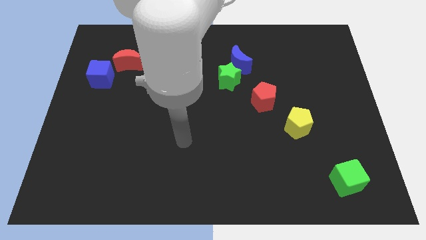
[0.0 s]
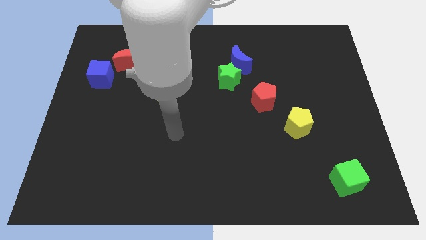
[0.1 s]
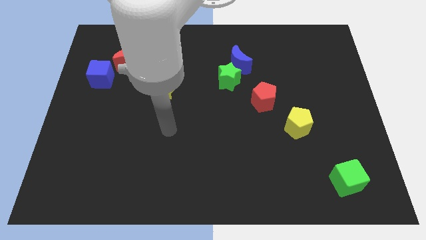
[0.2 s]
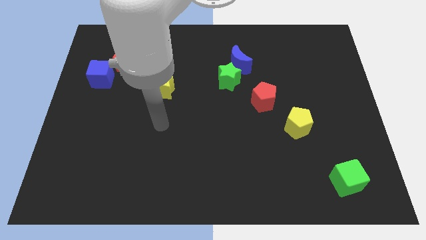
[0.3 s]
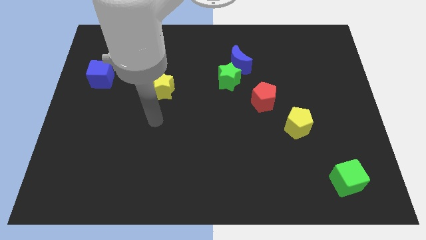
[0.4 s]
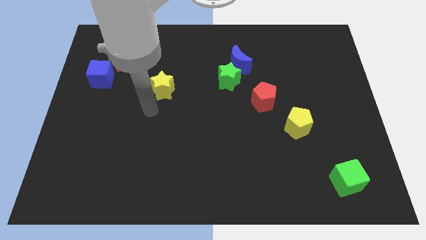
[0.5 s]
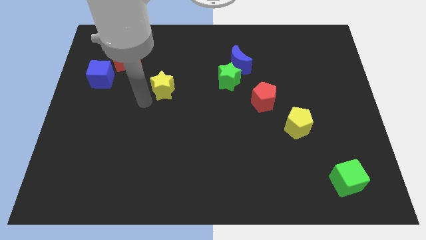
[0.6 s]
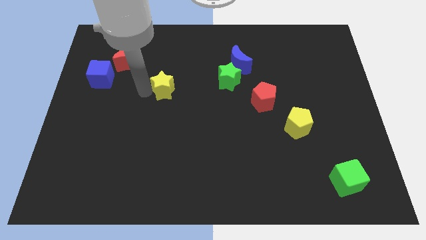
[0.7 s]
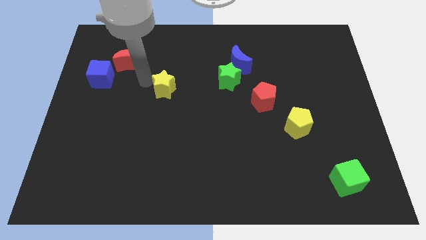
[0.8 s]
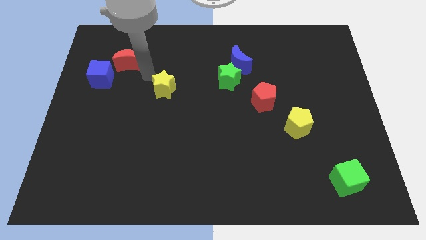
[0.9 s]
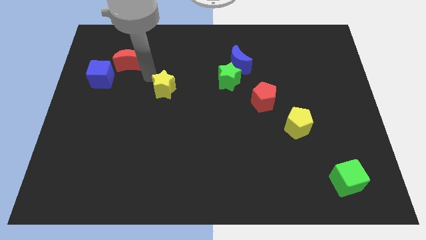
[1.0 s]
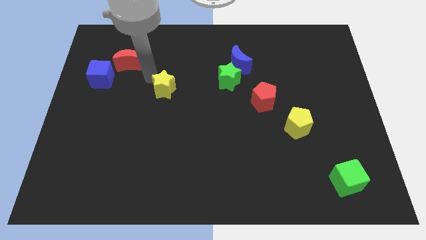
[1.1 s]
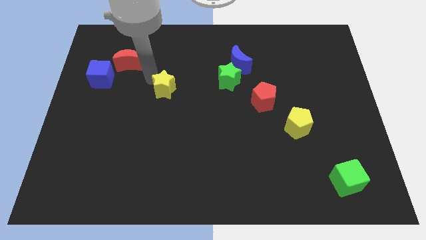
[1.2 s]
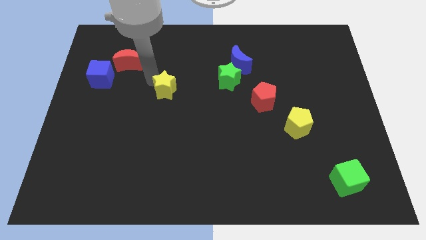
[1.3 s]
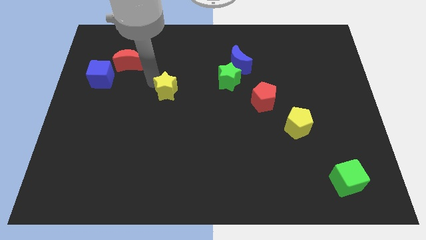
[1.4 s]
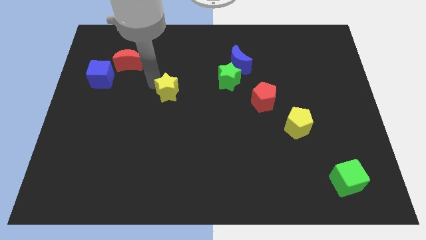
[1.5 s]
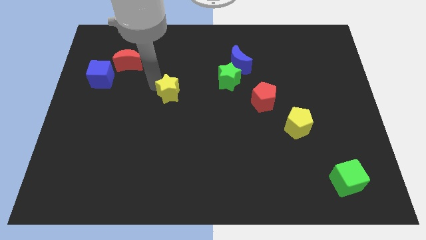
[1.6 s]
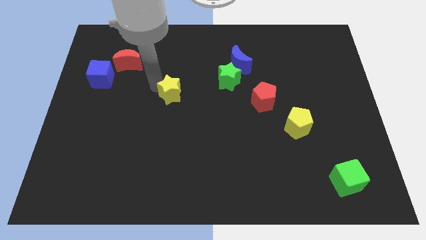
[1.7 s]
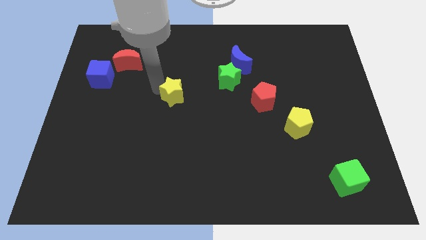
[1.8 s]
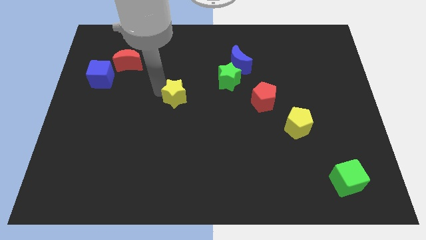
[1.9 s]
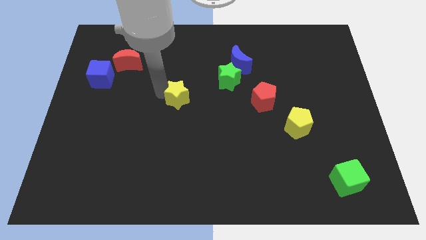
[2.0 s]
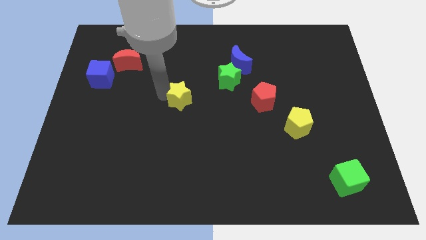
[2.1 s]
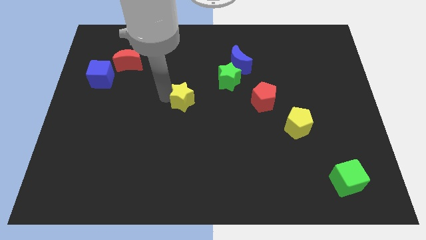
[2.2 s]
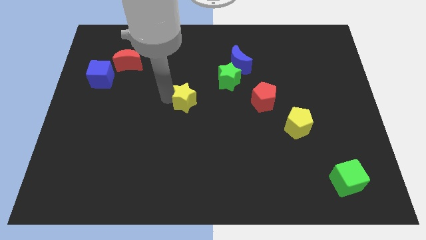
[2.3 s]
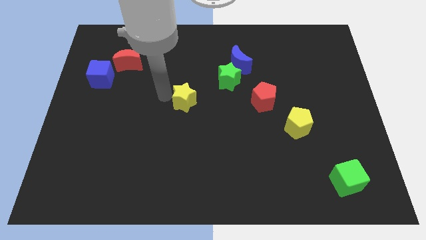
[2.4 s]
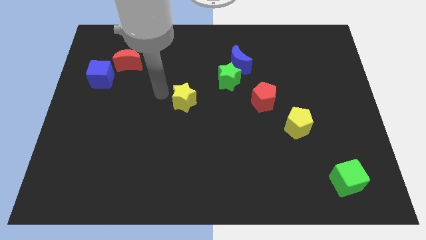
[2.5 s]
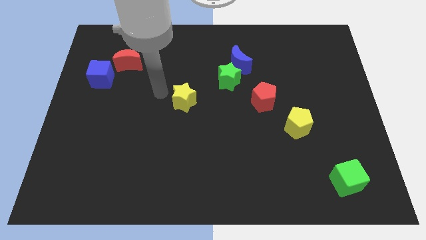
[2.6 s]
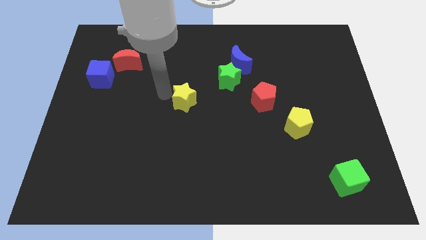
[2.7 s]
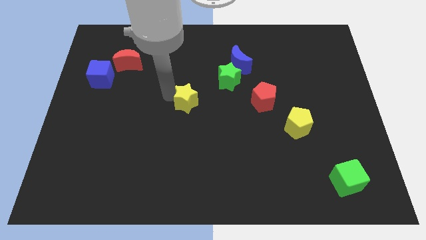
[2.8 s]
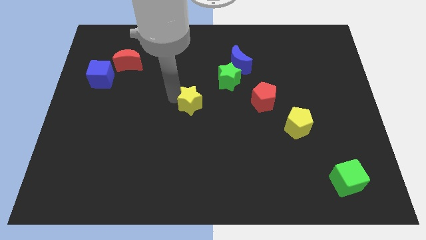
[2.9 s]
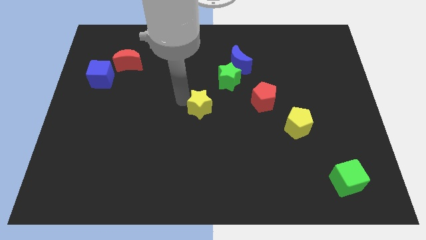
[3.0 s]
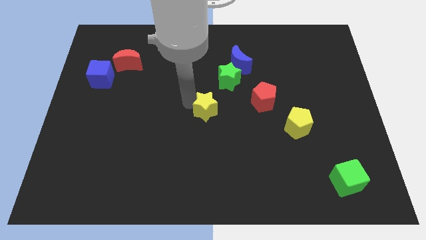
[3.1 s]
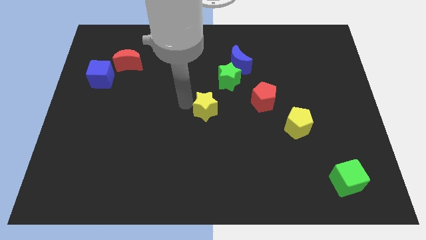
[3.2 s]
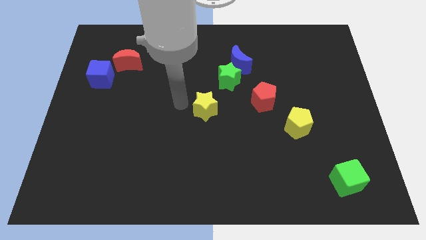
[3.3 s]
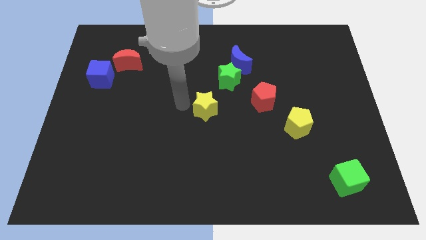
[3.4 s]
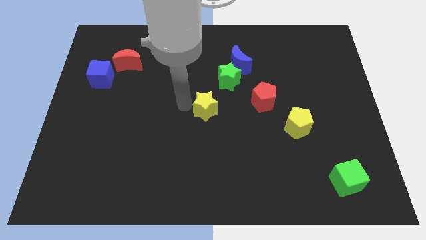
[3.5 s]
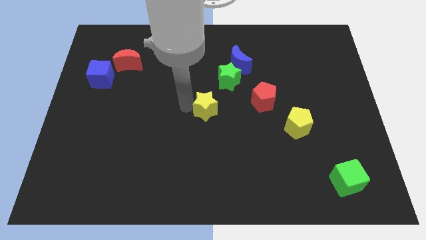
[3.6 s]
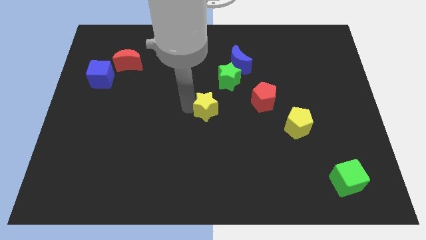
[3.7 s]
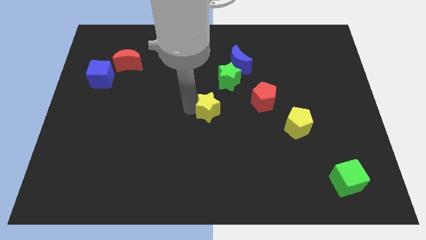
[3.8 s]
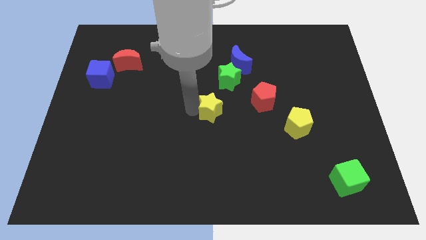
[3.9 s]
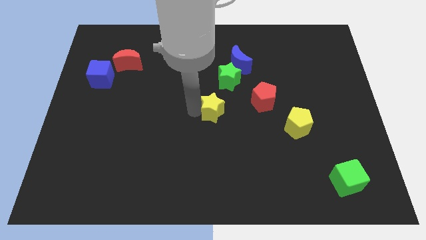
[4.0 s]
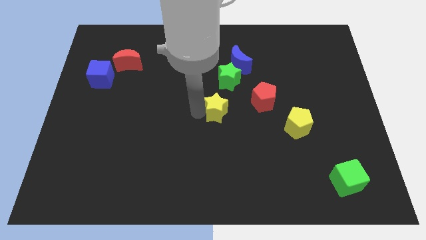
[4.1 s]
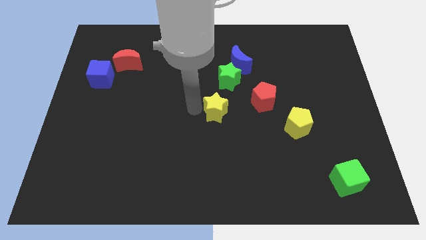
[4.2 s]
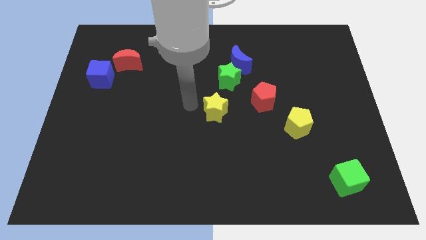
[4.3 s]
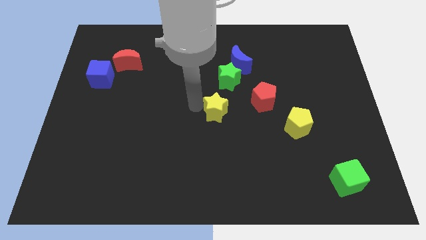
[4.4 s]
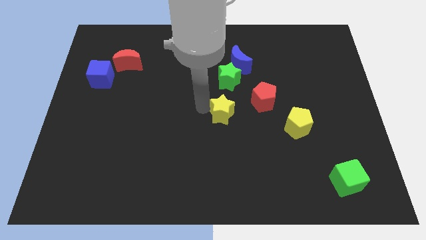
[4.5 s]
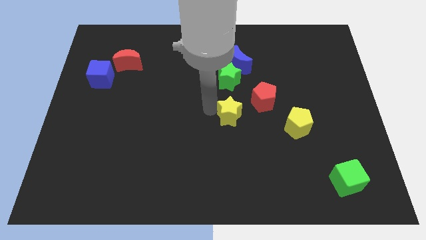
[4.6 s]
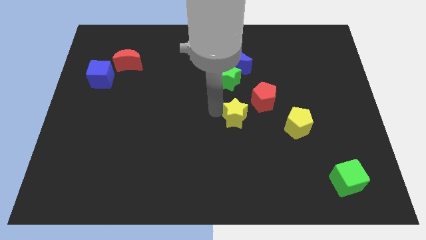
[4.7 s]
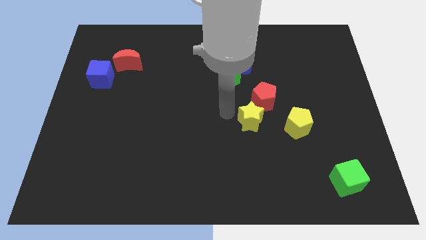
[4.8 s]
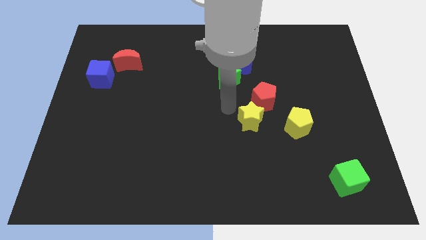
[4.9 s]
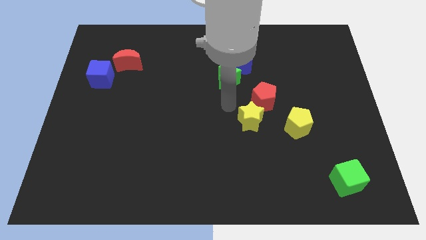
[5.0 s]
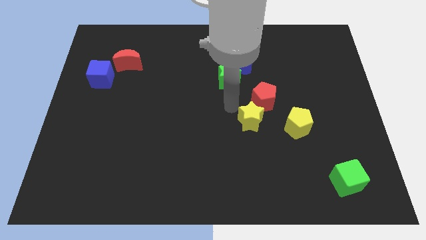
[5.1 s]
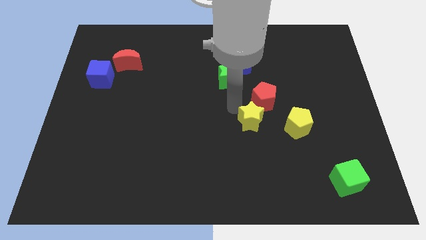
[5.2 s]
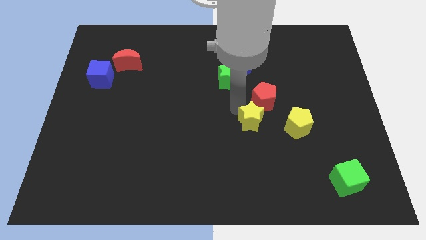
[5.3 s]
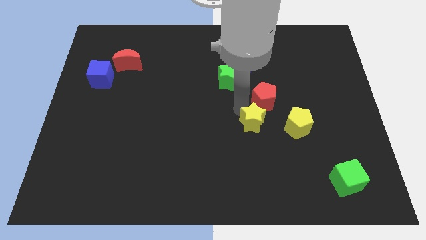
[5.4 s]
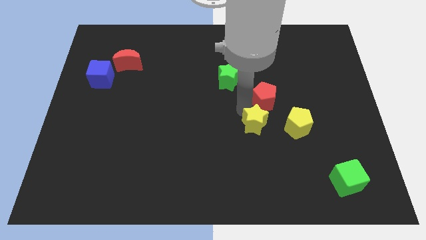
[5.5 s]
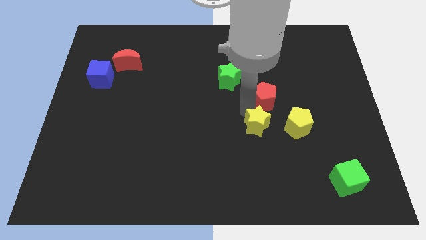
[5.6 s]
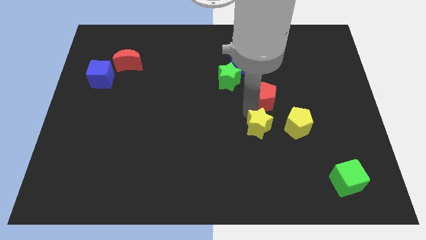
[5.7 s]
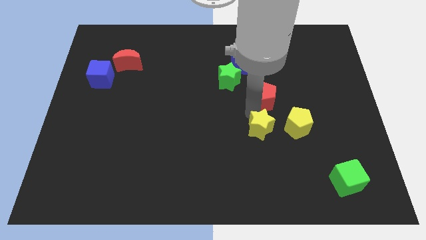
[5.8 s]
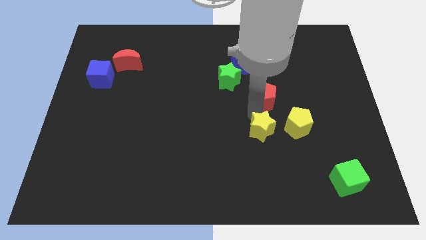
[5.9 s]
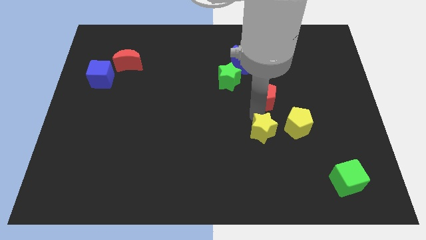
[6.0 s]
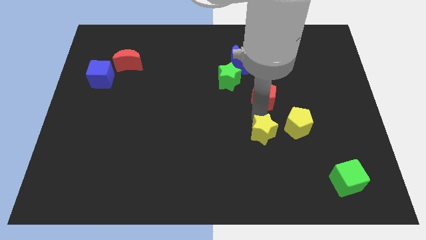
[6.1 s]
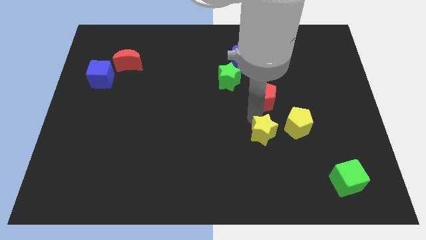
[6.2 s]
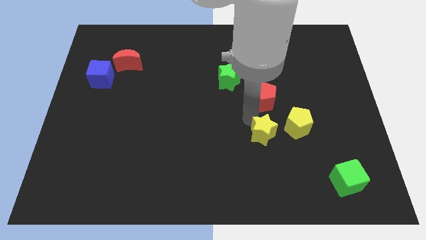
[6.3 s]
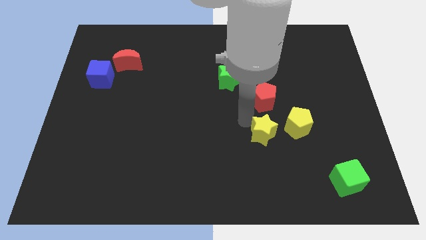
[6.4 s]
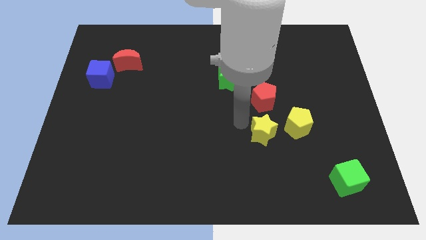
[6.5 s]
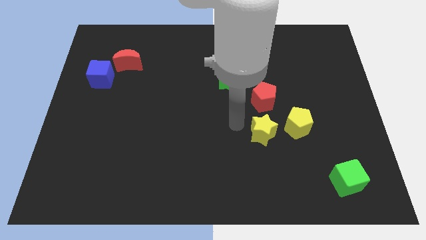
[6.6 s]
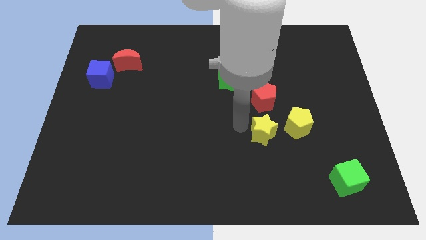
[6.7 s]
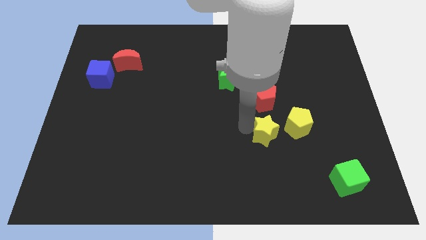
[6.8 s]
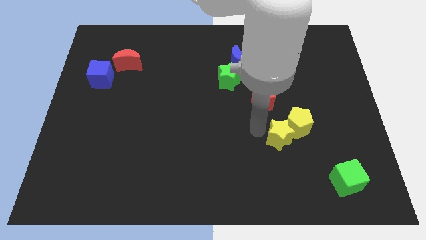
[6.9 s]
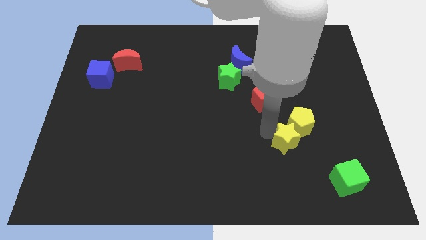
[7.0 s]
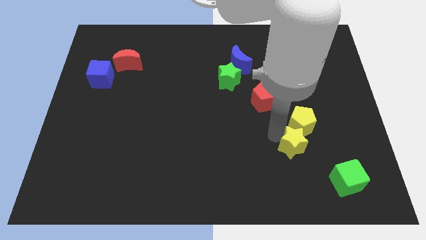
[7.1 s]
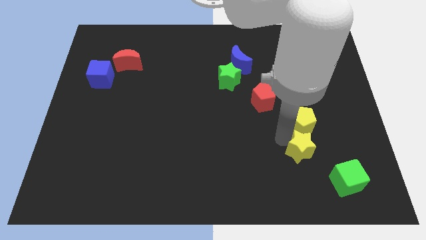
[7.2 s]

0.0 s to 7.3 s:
slide the yellow star diagonally up and to the left of the green cube
